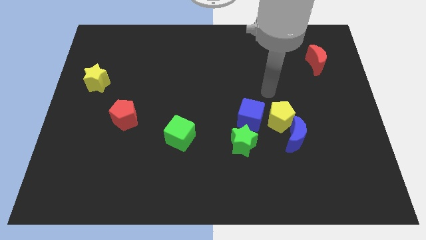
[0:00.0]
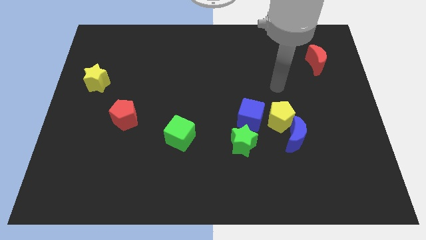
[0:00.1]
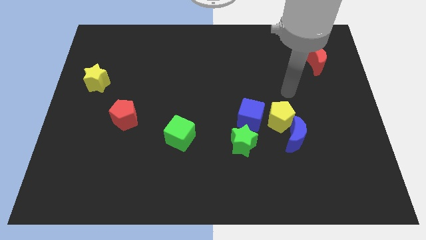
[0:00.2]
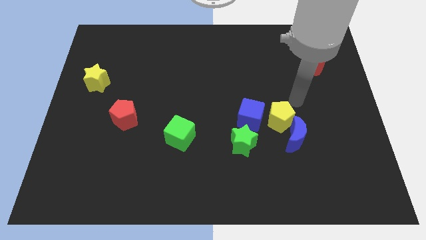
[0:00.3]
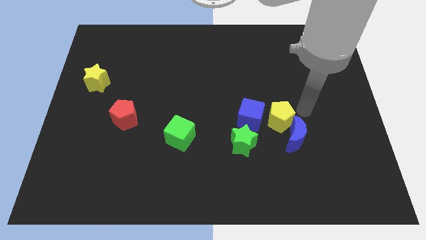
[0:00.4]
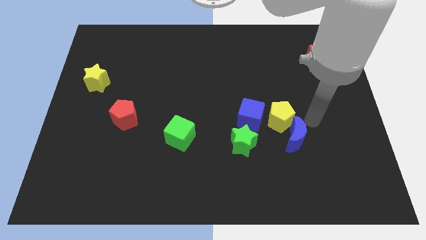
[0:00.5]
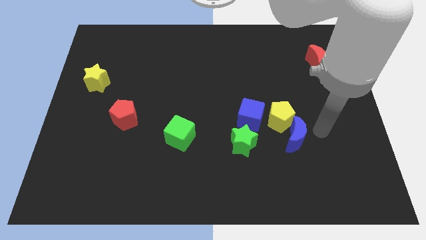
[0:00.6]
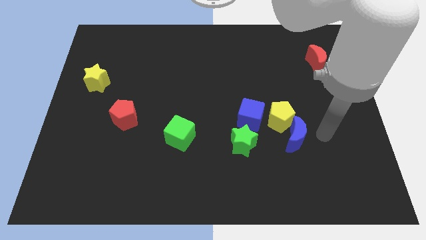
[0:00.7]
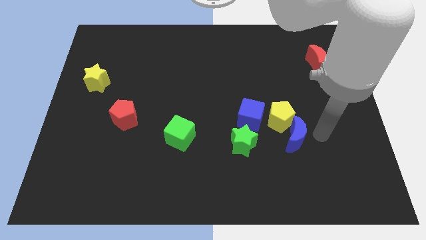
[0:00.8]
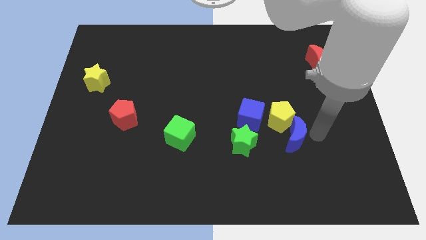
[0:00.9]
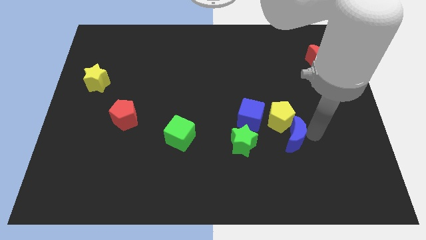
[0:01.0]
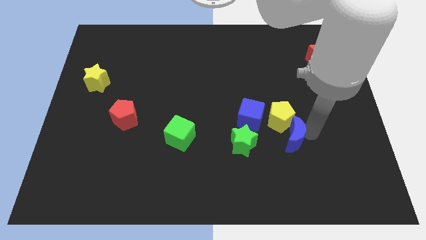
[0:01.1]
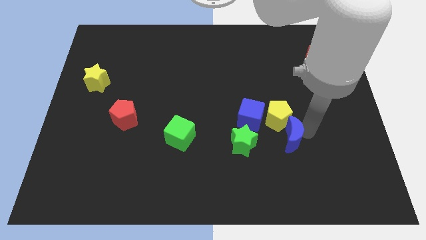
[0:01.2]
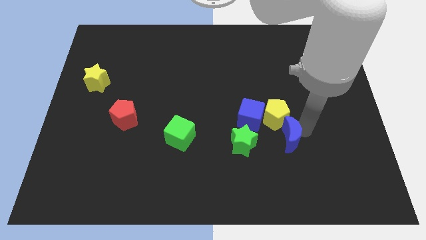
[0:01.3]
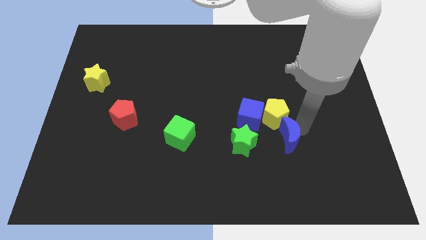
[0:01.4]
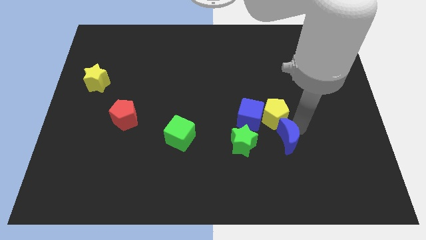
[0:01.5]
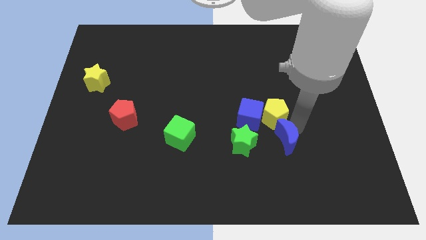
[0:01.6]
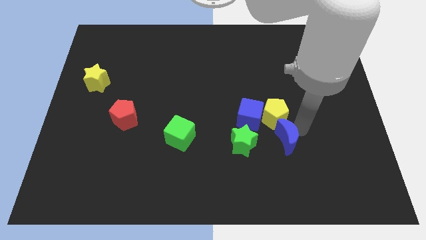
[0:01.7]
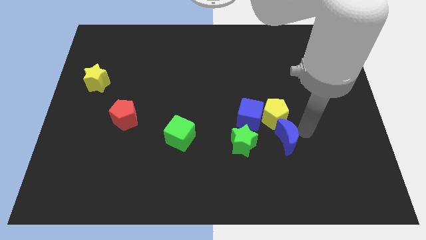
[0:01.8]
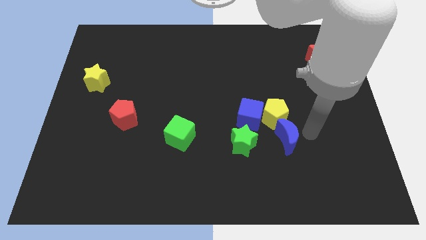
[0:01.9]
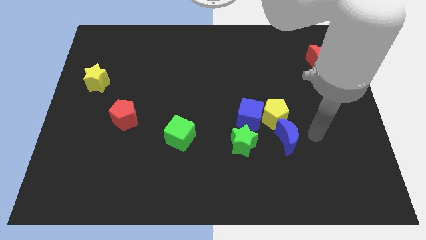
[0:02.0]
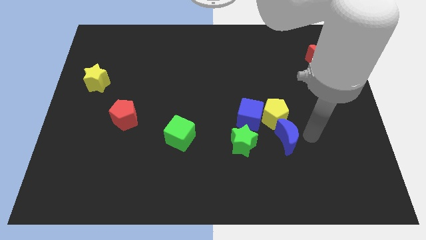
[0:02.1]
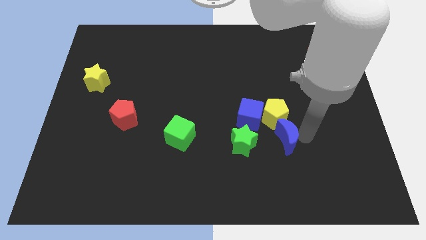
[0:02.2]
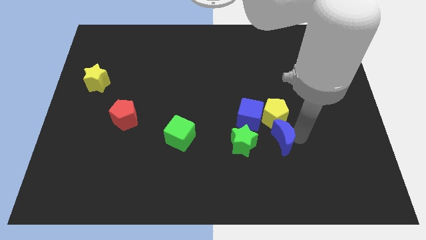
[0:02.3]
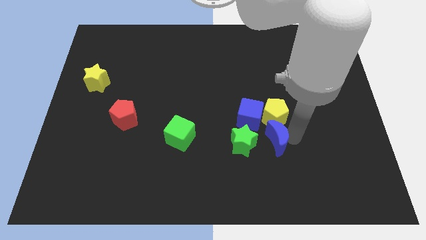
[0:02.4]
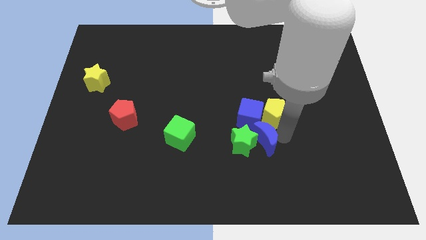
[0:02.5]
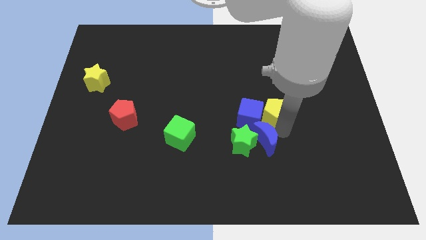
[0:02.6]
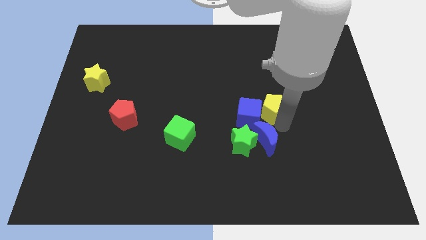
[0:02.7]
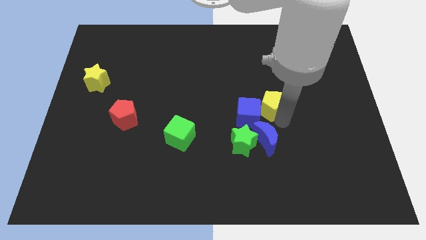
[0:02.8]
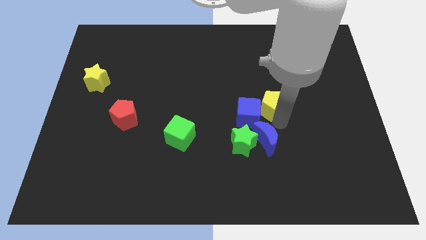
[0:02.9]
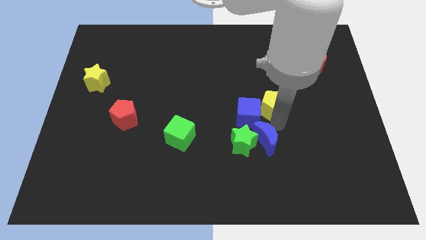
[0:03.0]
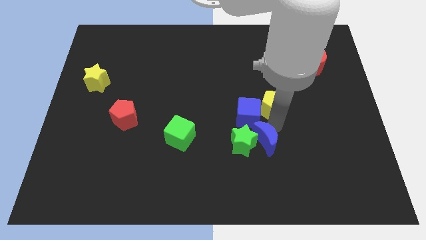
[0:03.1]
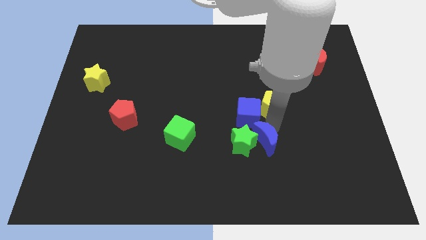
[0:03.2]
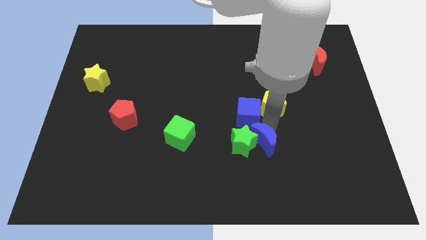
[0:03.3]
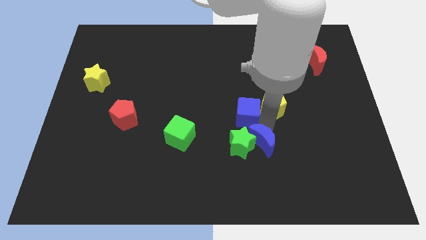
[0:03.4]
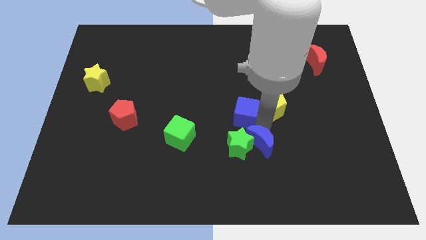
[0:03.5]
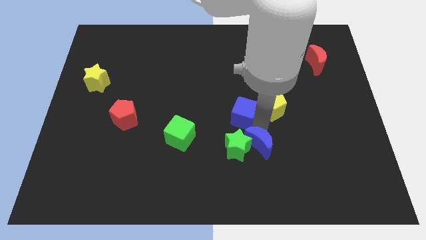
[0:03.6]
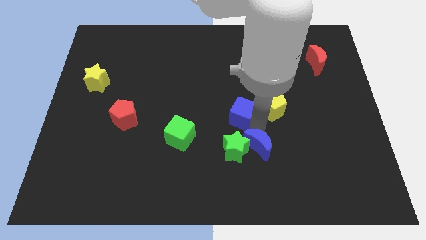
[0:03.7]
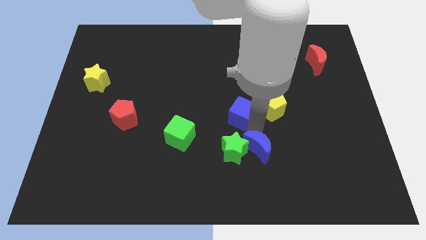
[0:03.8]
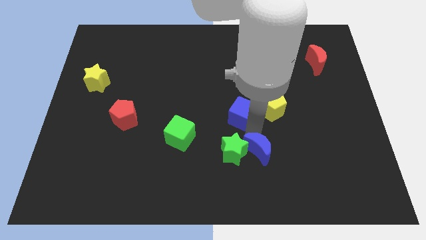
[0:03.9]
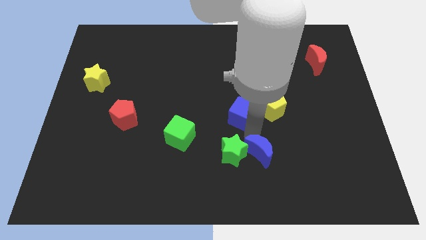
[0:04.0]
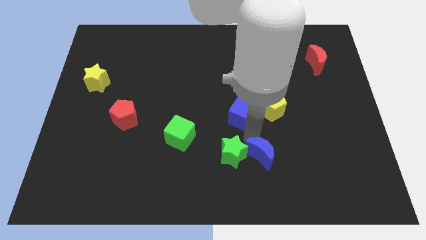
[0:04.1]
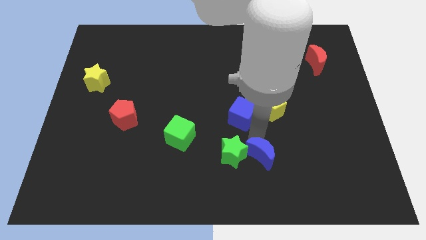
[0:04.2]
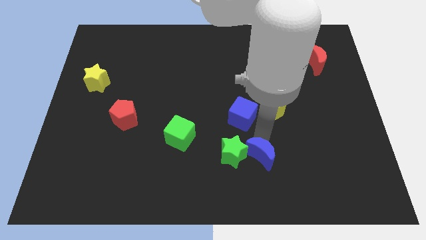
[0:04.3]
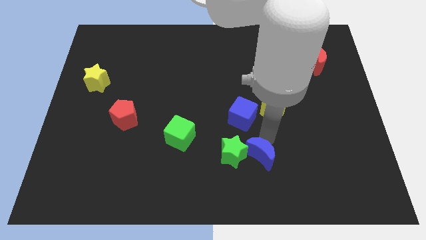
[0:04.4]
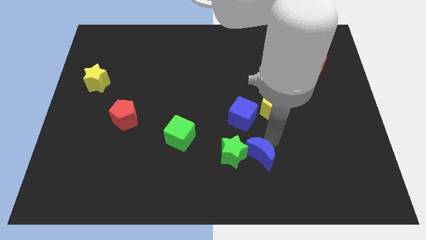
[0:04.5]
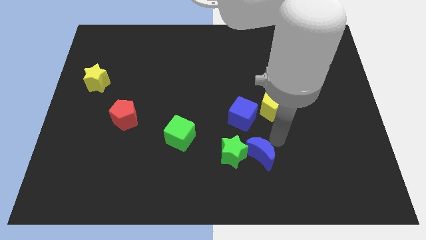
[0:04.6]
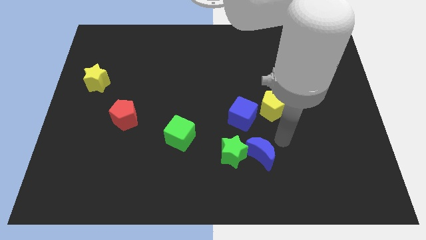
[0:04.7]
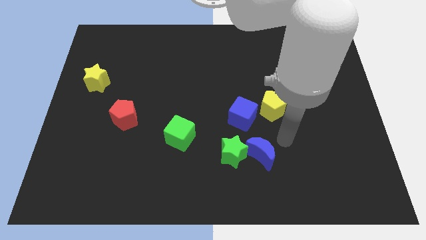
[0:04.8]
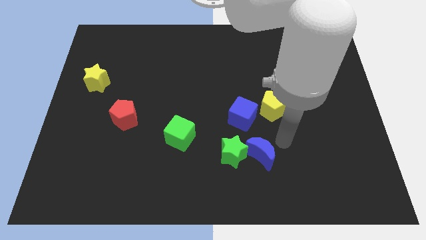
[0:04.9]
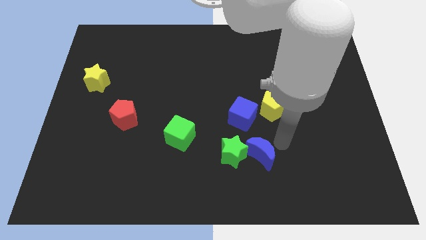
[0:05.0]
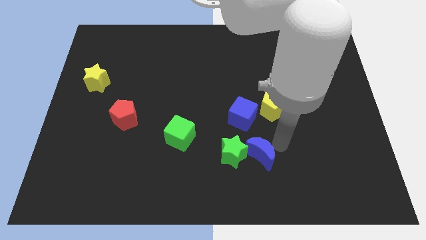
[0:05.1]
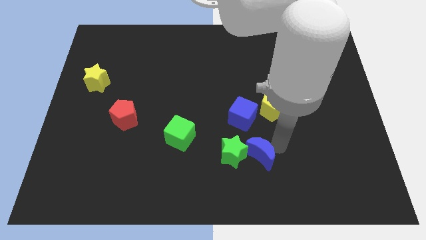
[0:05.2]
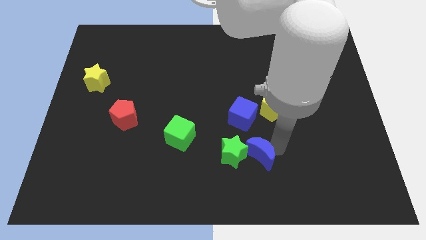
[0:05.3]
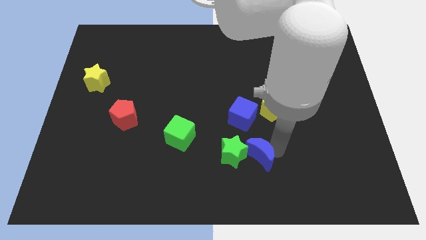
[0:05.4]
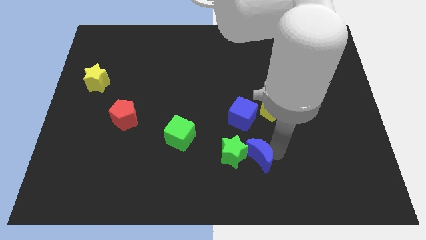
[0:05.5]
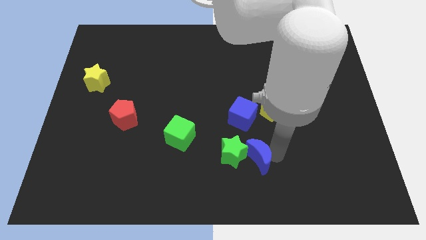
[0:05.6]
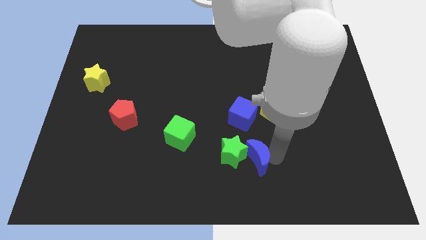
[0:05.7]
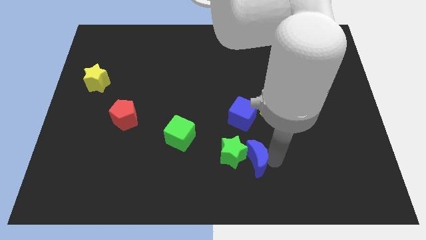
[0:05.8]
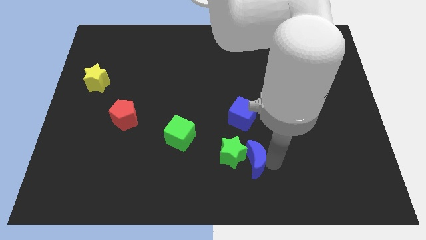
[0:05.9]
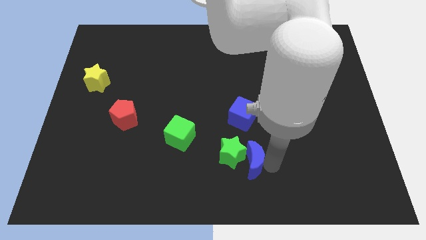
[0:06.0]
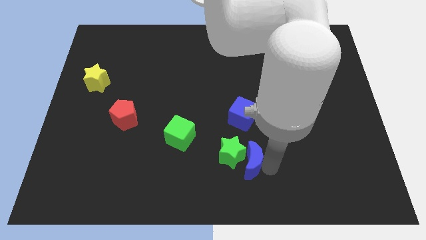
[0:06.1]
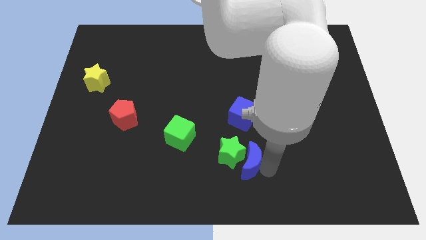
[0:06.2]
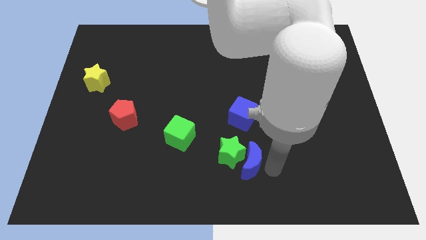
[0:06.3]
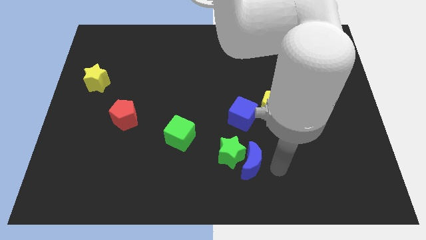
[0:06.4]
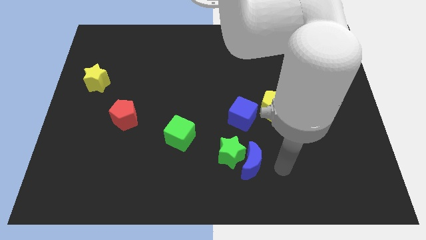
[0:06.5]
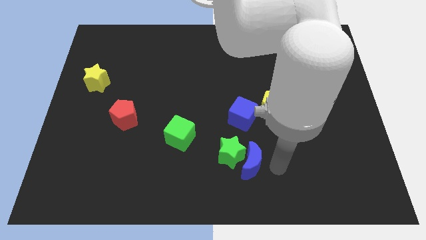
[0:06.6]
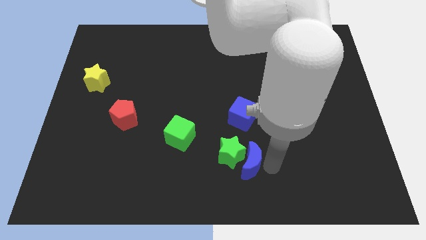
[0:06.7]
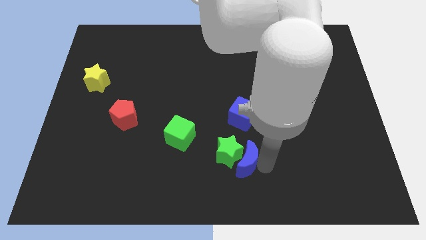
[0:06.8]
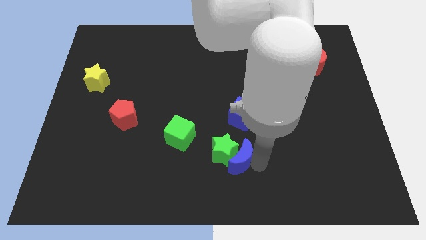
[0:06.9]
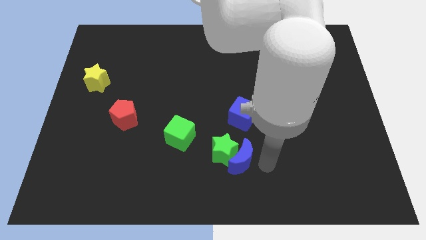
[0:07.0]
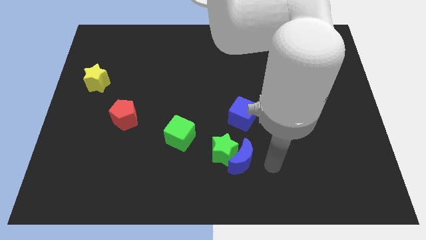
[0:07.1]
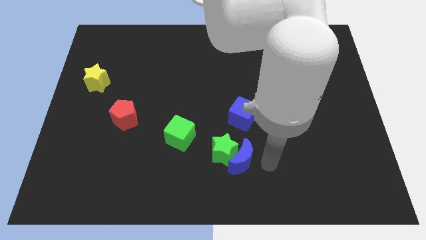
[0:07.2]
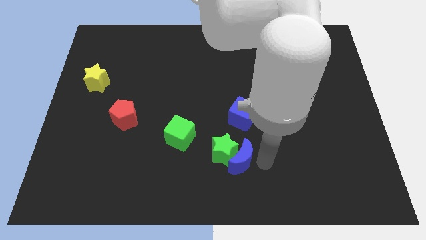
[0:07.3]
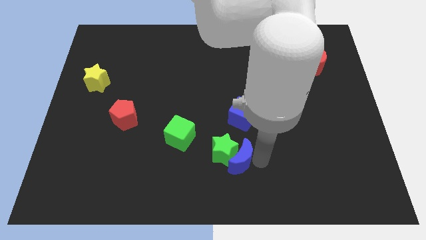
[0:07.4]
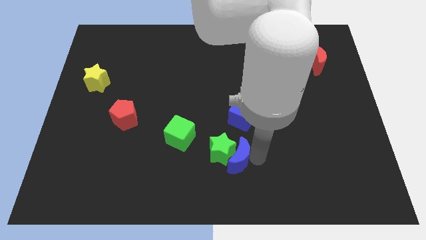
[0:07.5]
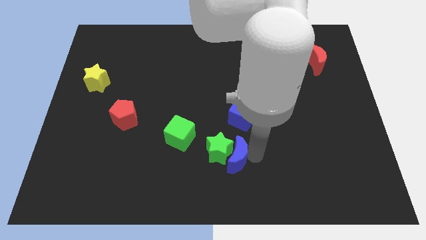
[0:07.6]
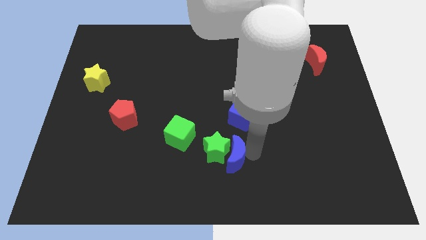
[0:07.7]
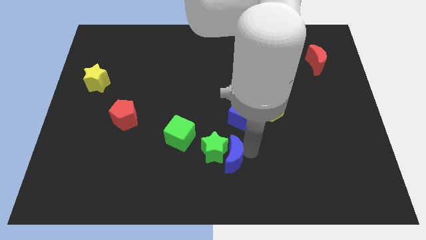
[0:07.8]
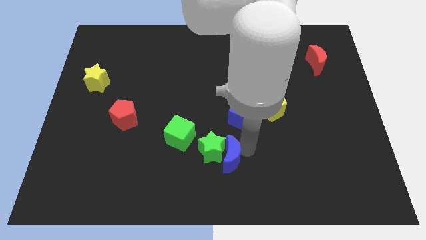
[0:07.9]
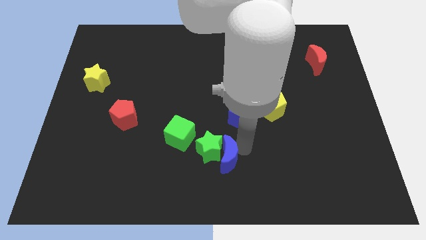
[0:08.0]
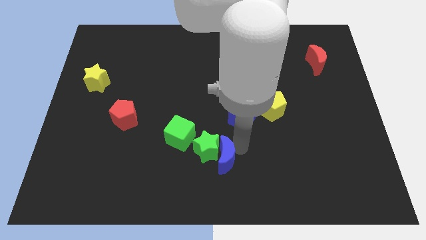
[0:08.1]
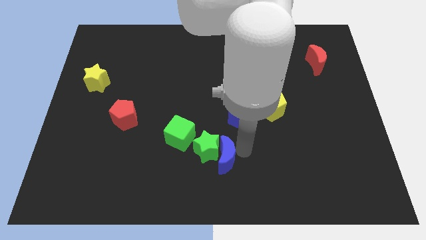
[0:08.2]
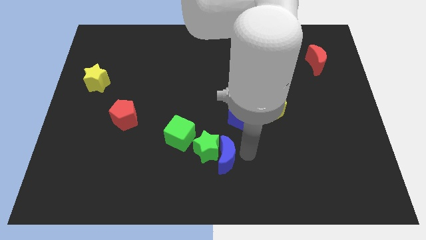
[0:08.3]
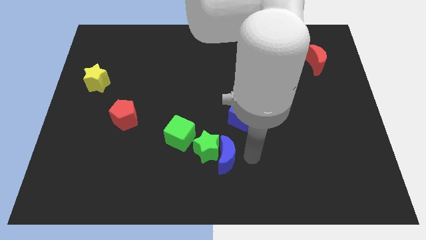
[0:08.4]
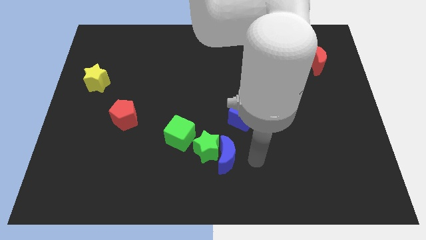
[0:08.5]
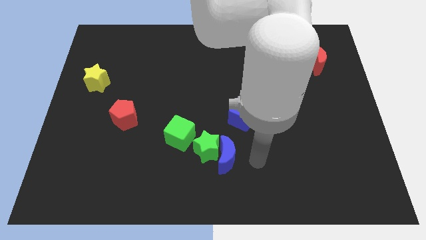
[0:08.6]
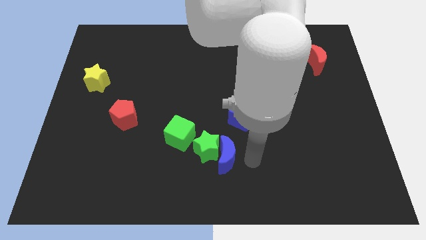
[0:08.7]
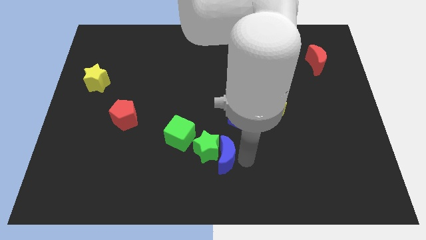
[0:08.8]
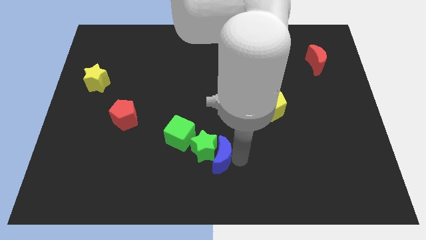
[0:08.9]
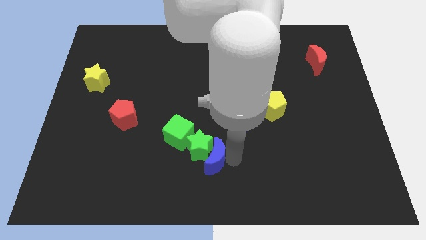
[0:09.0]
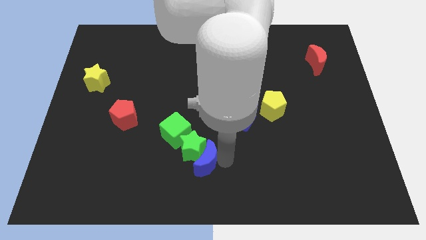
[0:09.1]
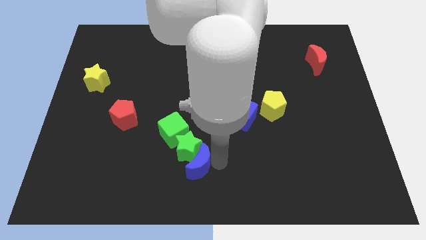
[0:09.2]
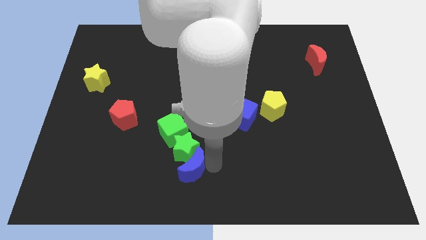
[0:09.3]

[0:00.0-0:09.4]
push the blue moon left
